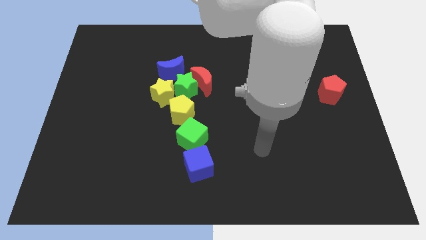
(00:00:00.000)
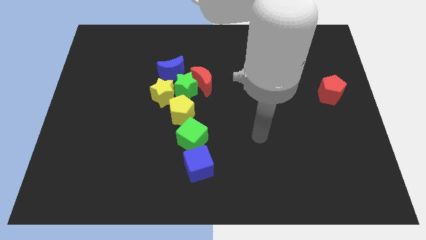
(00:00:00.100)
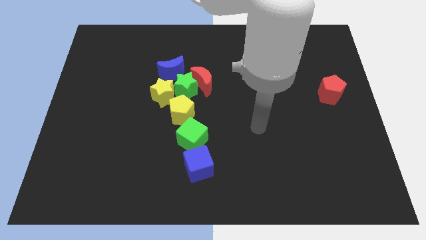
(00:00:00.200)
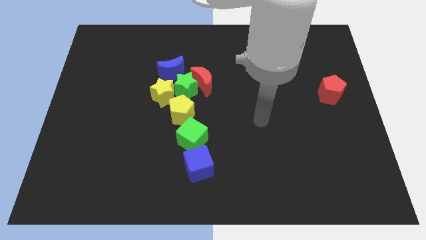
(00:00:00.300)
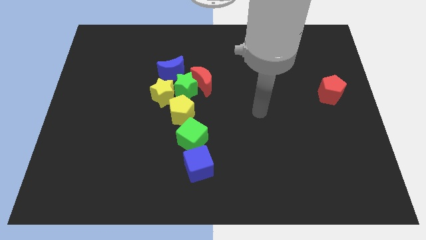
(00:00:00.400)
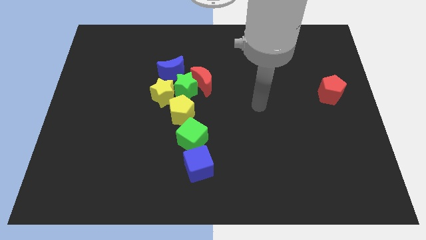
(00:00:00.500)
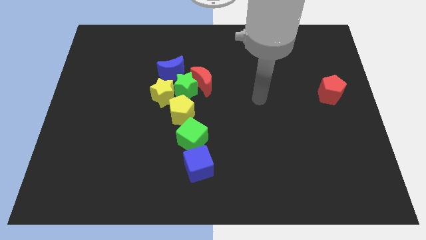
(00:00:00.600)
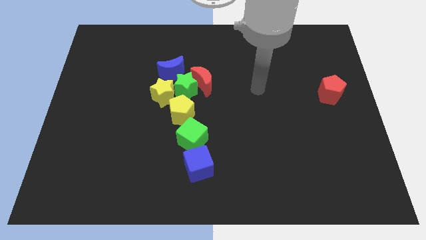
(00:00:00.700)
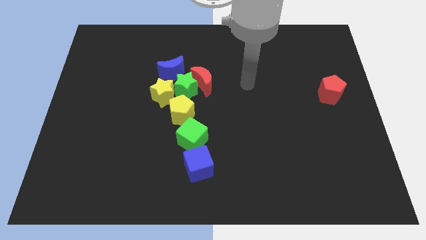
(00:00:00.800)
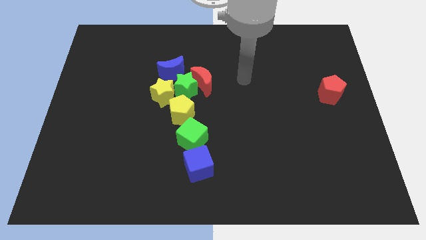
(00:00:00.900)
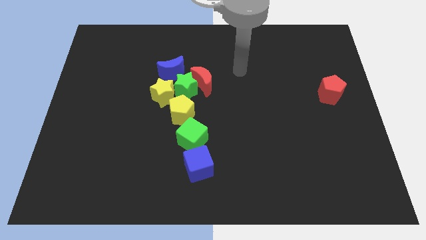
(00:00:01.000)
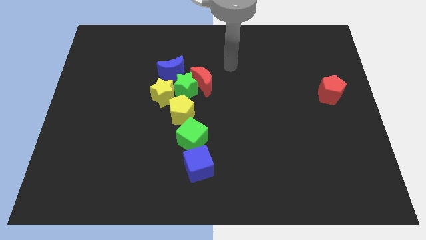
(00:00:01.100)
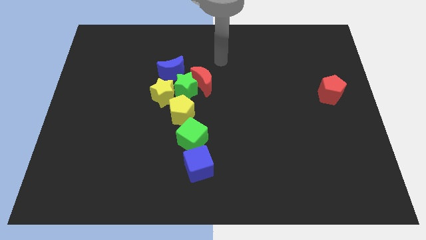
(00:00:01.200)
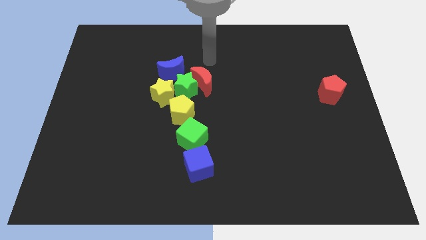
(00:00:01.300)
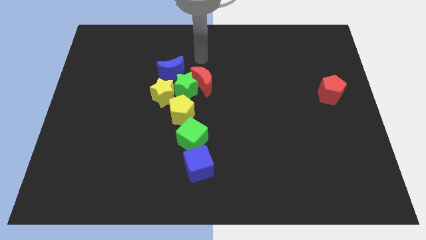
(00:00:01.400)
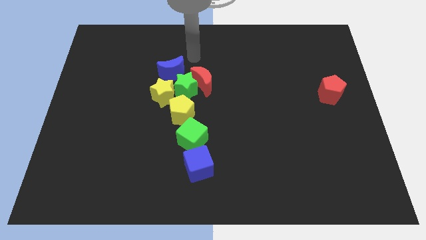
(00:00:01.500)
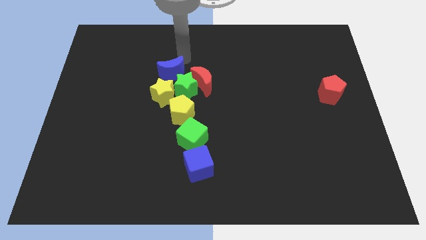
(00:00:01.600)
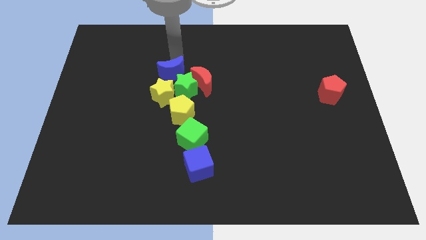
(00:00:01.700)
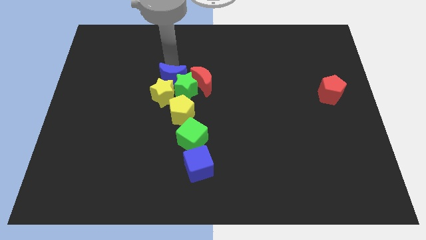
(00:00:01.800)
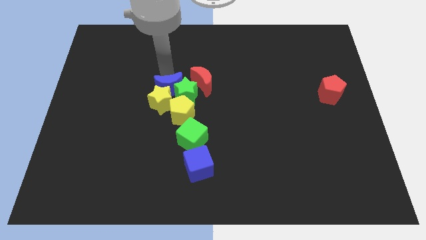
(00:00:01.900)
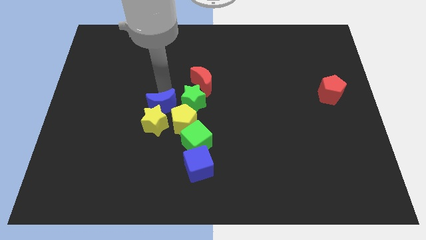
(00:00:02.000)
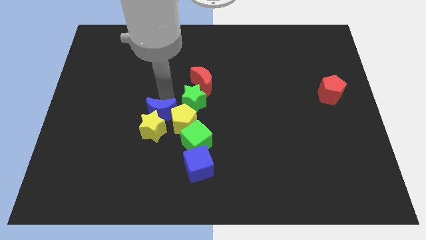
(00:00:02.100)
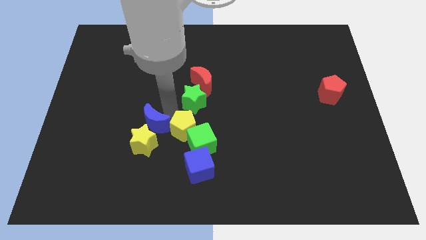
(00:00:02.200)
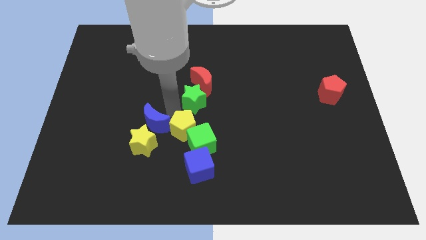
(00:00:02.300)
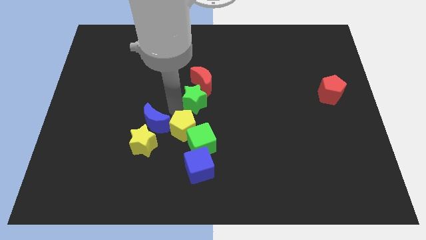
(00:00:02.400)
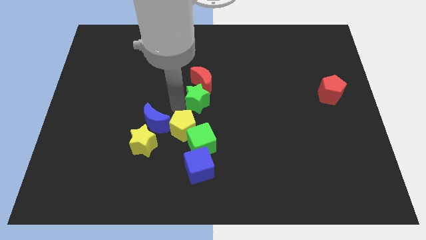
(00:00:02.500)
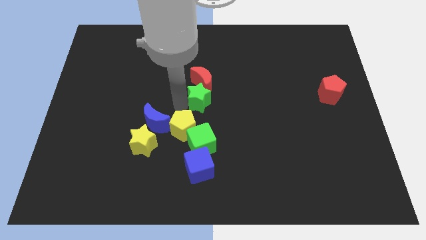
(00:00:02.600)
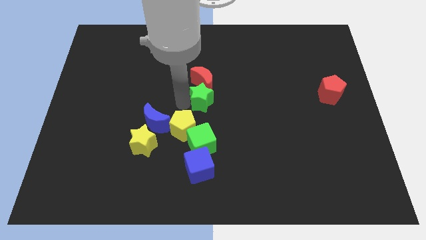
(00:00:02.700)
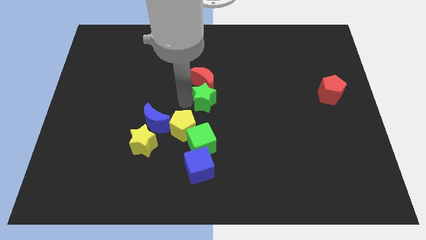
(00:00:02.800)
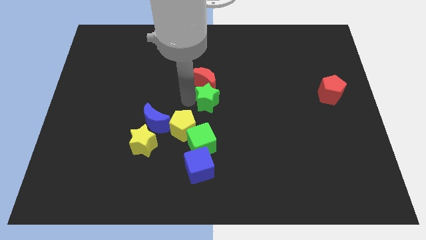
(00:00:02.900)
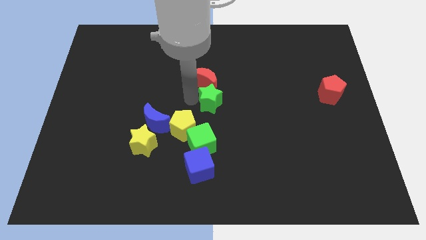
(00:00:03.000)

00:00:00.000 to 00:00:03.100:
pull the green star apart from the group of blocks

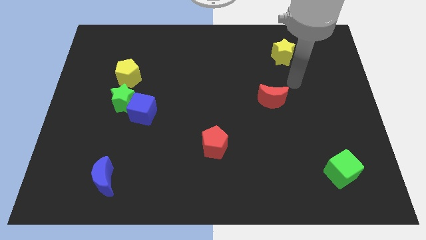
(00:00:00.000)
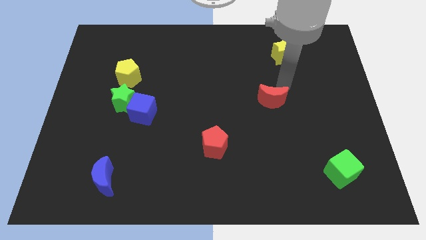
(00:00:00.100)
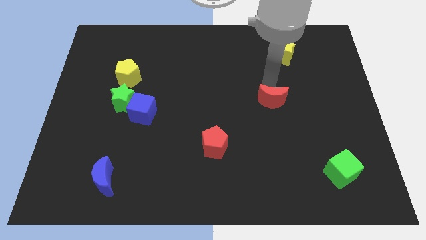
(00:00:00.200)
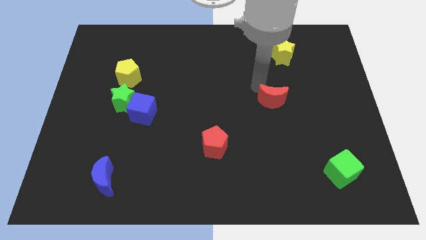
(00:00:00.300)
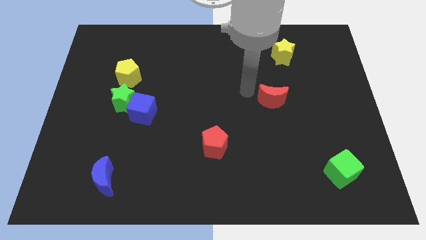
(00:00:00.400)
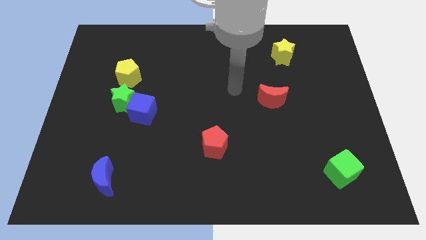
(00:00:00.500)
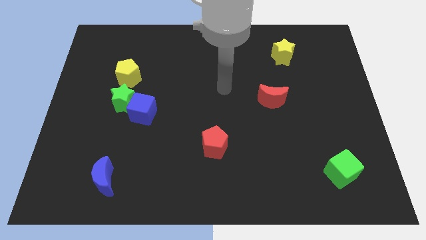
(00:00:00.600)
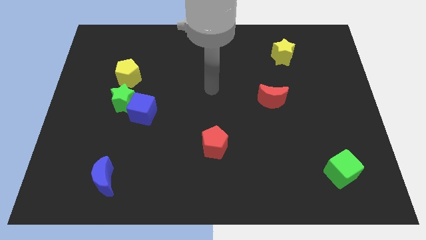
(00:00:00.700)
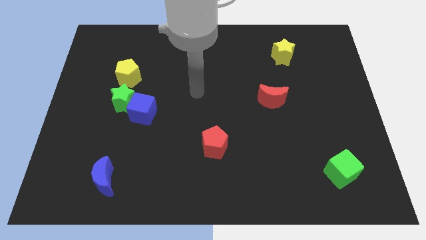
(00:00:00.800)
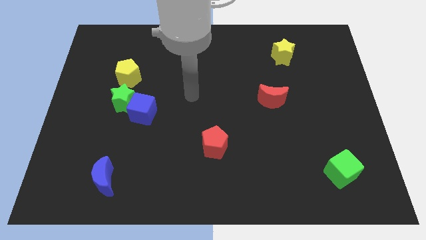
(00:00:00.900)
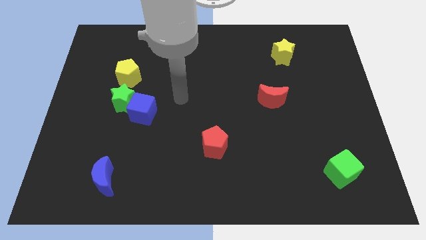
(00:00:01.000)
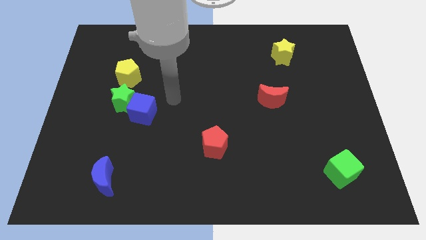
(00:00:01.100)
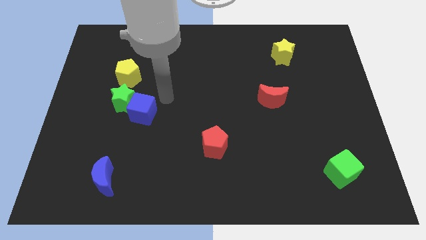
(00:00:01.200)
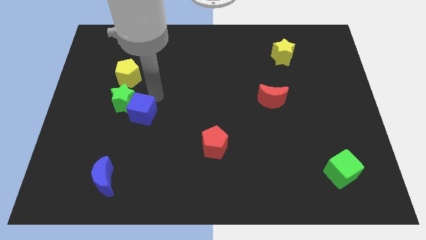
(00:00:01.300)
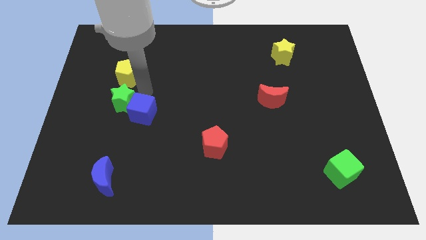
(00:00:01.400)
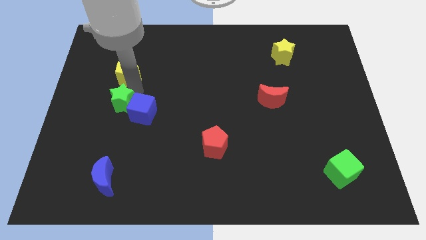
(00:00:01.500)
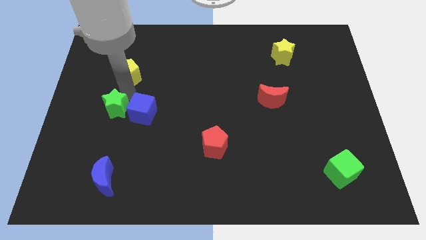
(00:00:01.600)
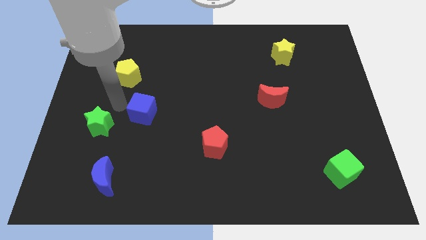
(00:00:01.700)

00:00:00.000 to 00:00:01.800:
pull the blue cube apart from the green star

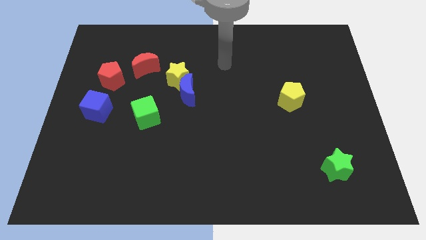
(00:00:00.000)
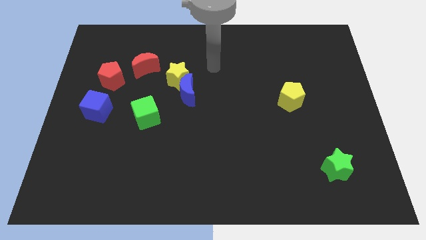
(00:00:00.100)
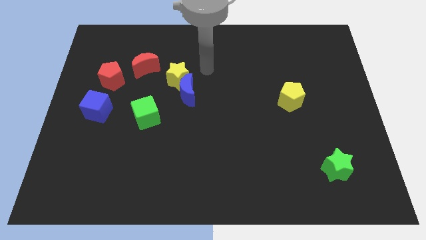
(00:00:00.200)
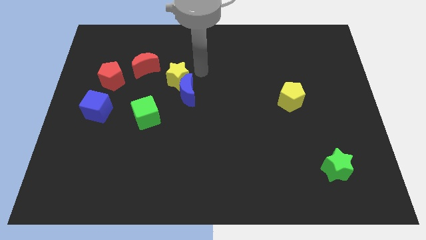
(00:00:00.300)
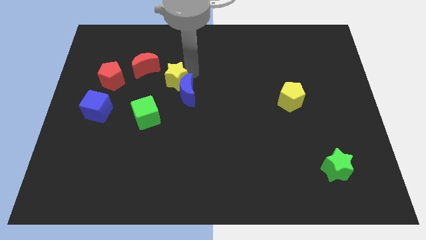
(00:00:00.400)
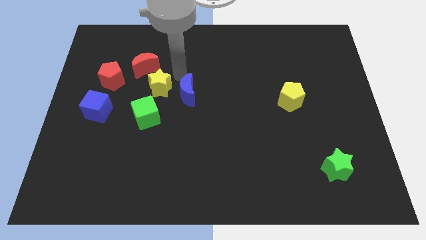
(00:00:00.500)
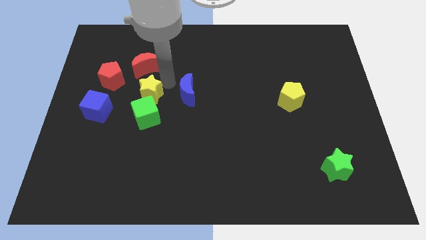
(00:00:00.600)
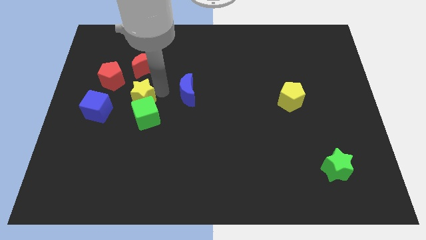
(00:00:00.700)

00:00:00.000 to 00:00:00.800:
separate the blue moon from the yellow star

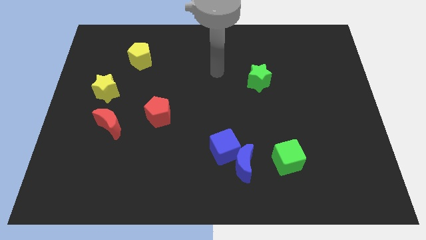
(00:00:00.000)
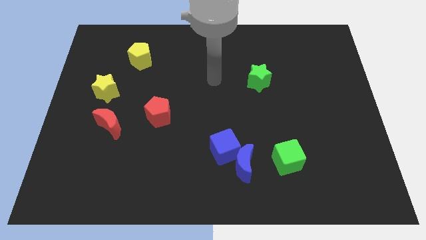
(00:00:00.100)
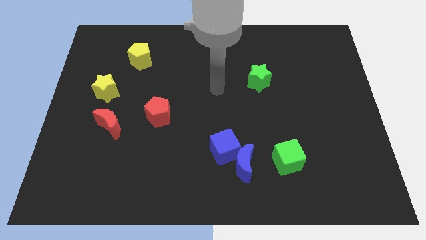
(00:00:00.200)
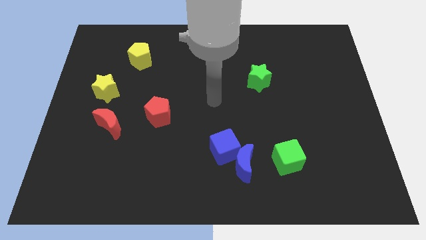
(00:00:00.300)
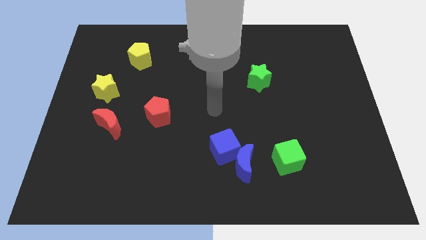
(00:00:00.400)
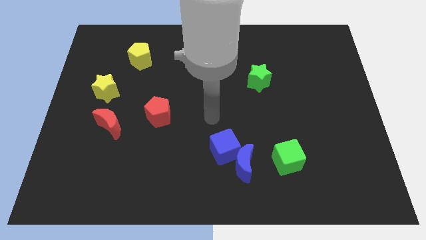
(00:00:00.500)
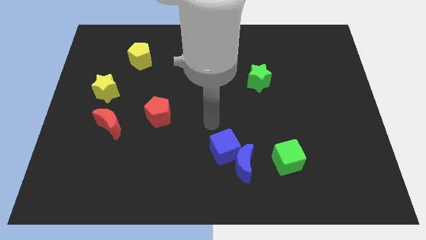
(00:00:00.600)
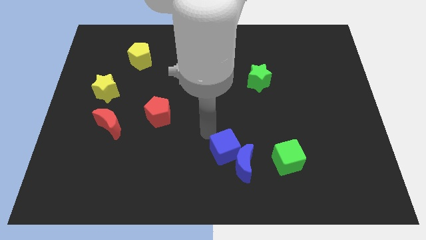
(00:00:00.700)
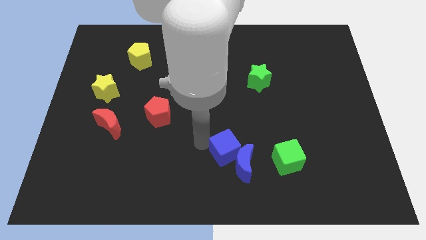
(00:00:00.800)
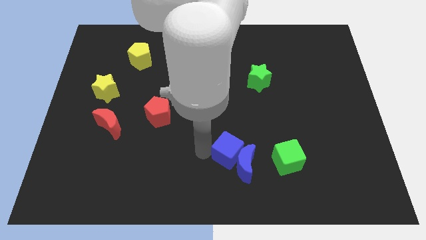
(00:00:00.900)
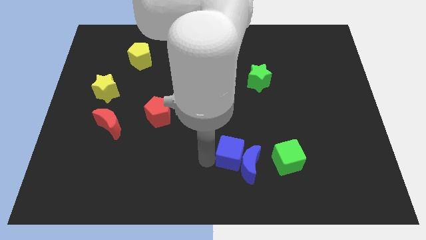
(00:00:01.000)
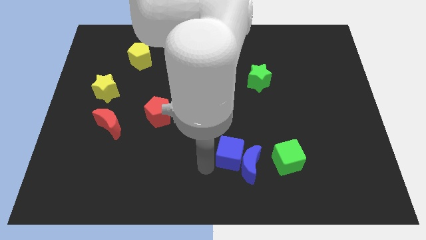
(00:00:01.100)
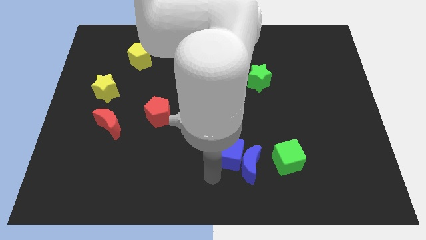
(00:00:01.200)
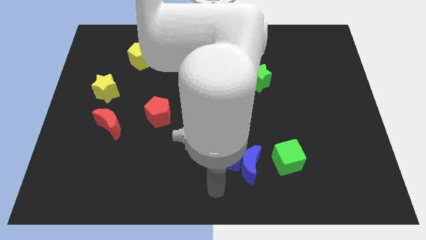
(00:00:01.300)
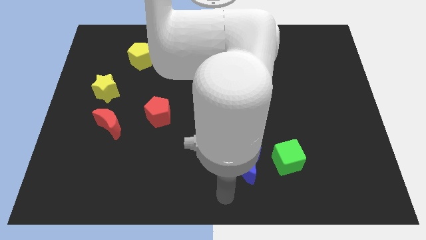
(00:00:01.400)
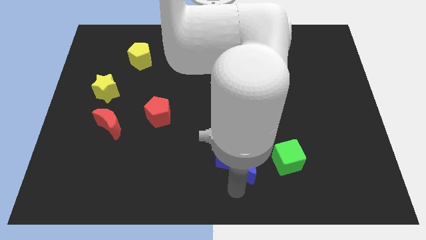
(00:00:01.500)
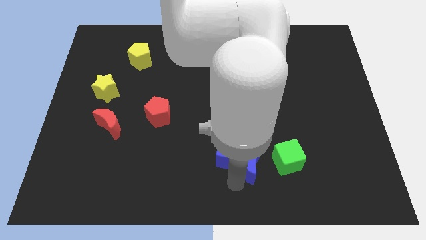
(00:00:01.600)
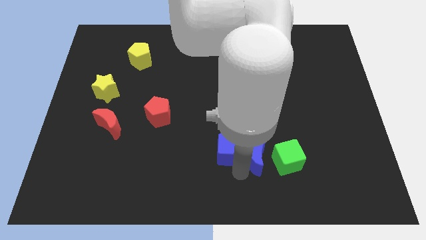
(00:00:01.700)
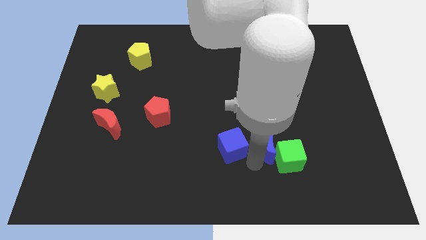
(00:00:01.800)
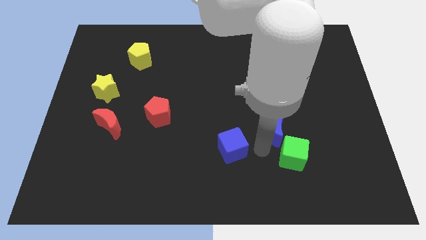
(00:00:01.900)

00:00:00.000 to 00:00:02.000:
move the blue cube away from the blue moon

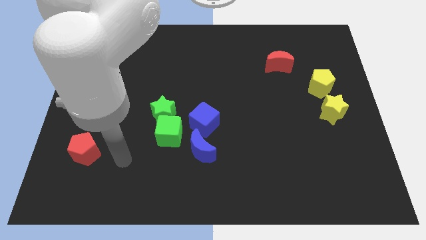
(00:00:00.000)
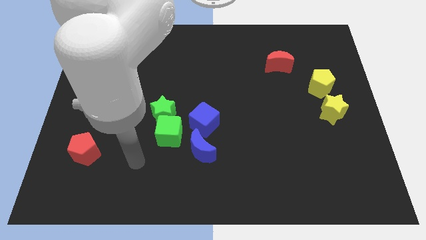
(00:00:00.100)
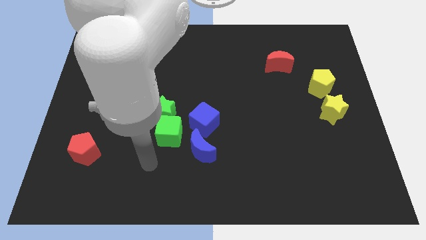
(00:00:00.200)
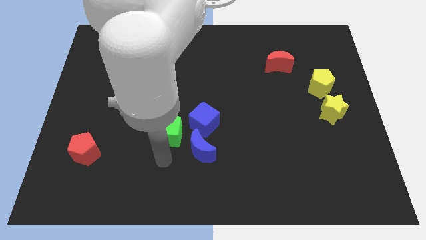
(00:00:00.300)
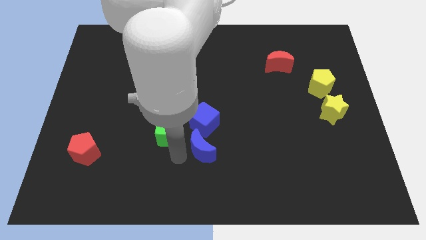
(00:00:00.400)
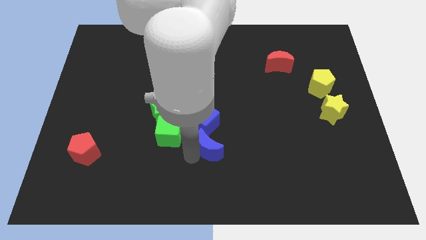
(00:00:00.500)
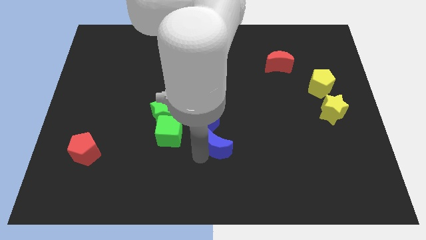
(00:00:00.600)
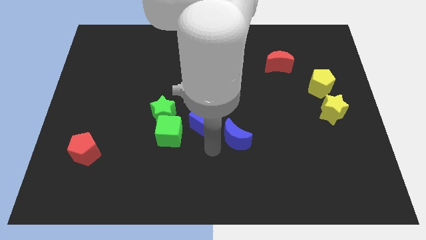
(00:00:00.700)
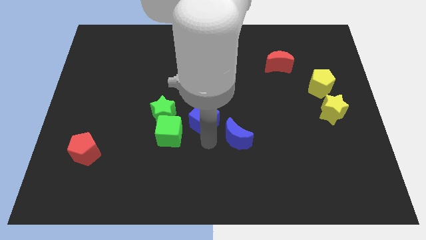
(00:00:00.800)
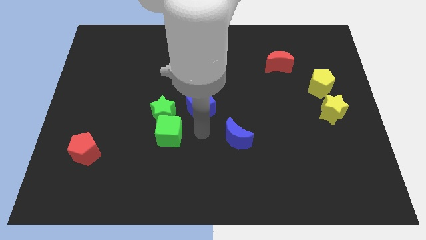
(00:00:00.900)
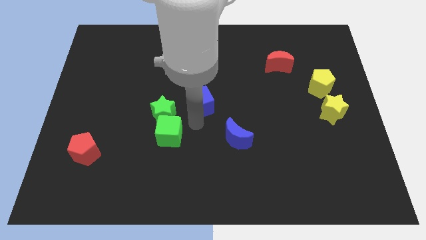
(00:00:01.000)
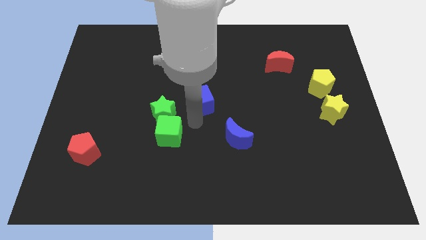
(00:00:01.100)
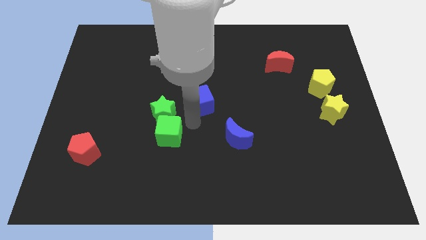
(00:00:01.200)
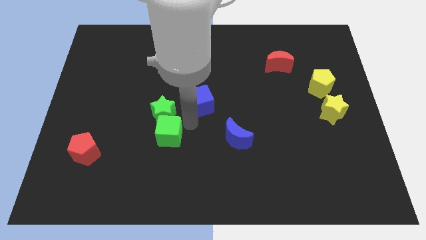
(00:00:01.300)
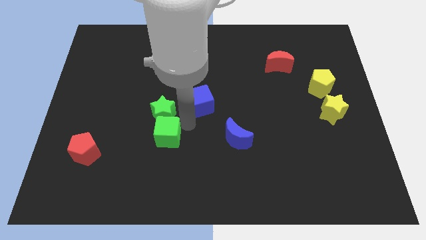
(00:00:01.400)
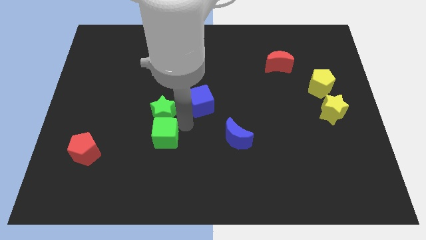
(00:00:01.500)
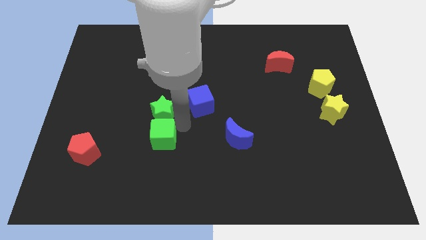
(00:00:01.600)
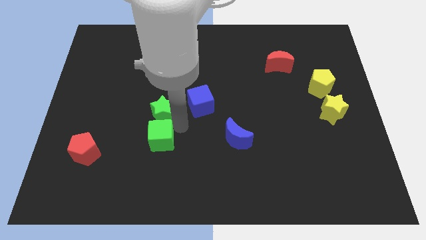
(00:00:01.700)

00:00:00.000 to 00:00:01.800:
move the green cube away from the green star, blue moon, and blue cube
